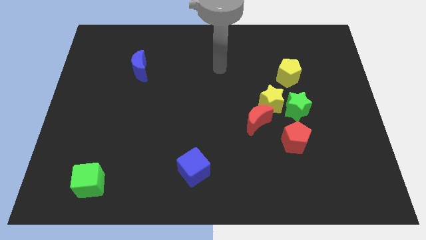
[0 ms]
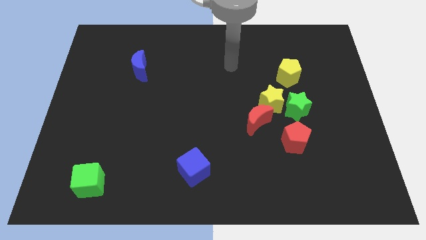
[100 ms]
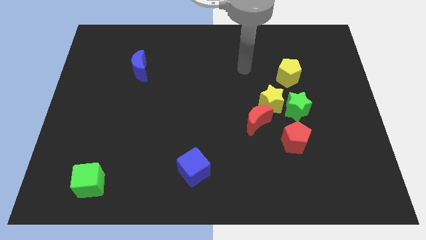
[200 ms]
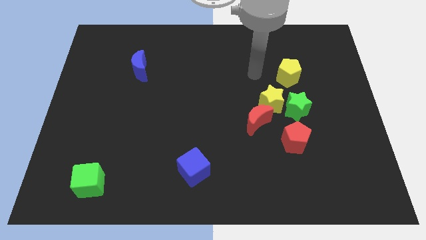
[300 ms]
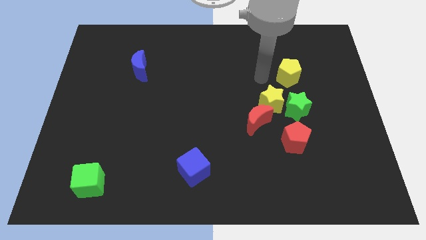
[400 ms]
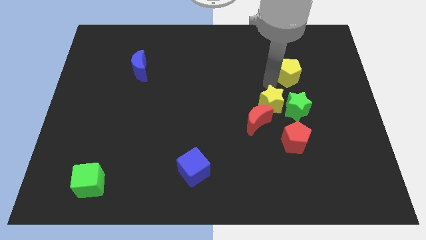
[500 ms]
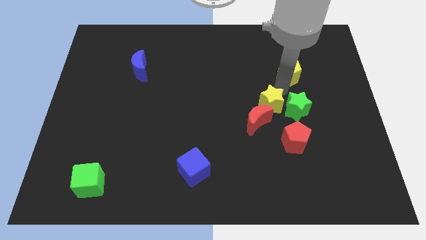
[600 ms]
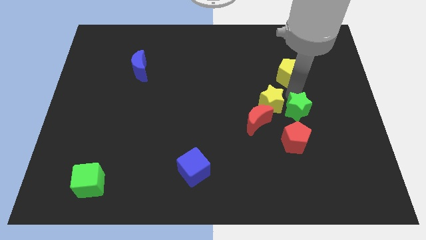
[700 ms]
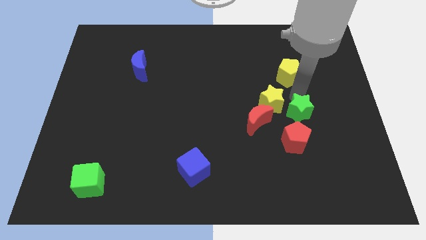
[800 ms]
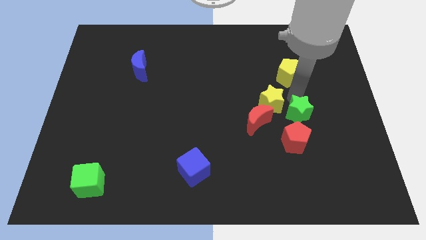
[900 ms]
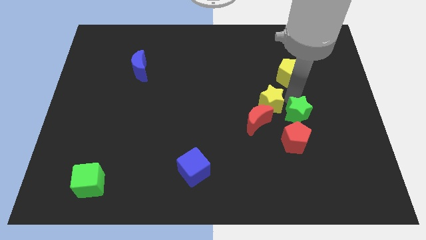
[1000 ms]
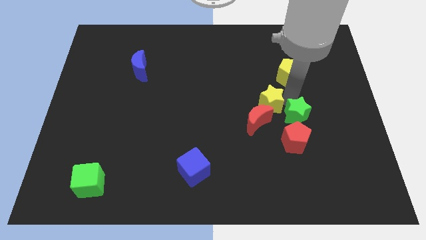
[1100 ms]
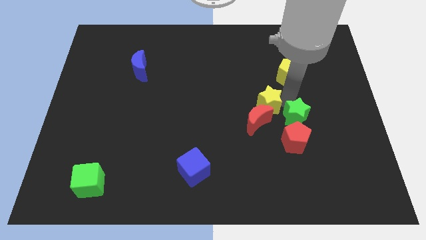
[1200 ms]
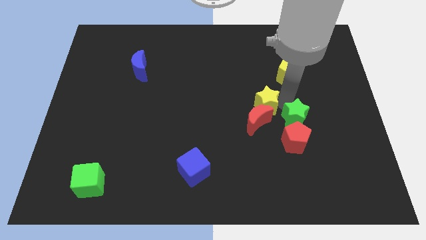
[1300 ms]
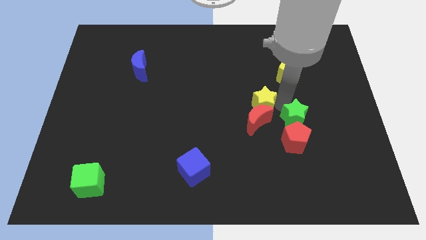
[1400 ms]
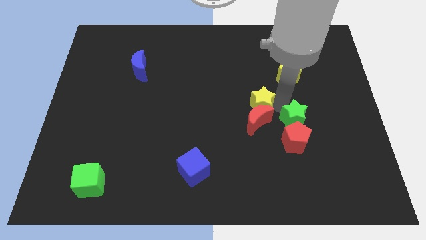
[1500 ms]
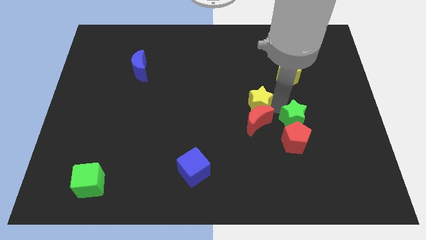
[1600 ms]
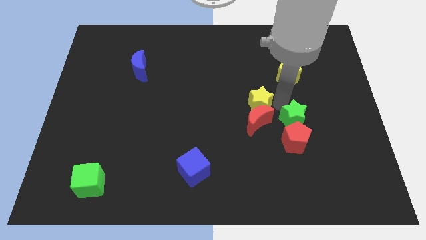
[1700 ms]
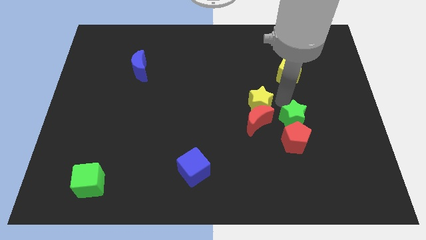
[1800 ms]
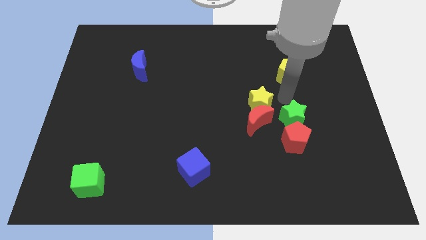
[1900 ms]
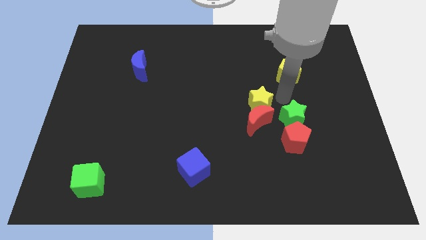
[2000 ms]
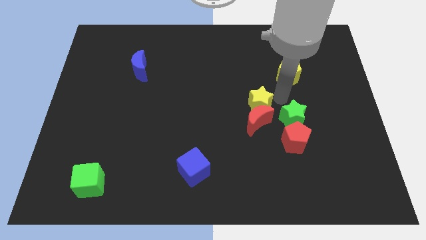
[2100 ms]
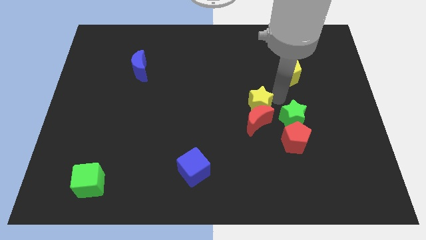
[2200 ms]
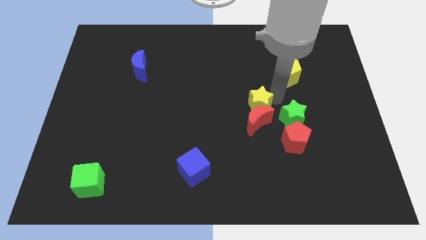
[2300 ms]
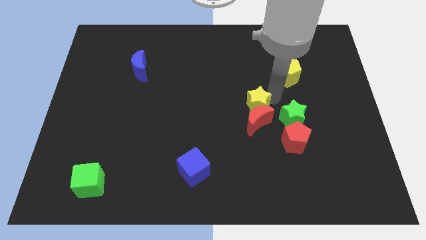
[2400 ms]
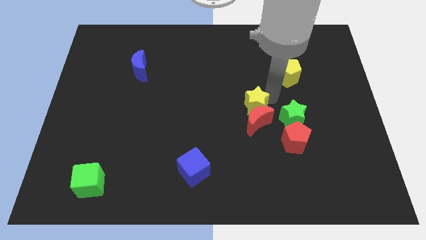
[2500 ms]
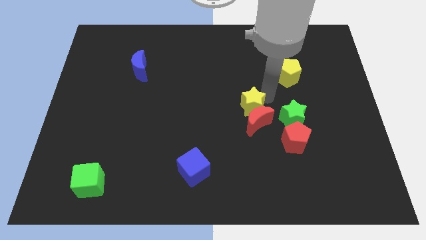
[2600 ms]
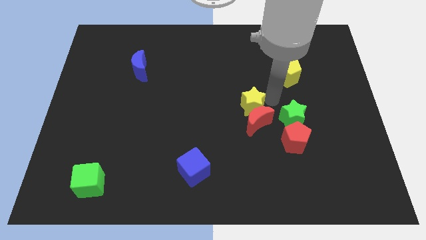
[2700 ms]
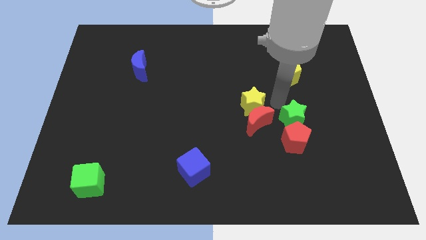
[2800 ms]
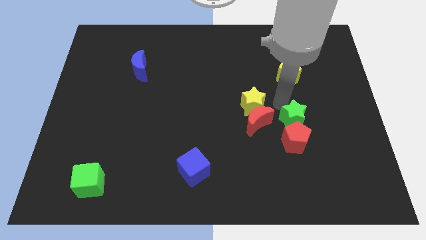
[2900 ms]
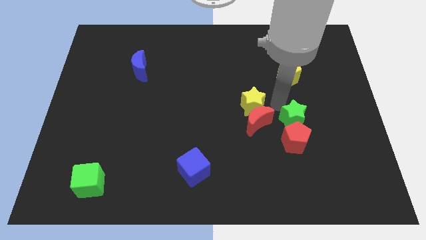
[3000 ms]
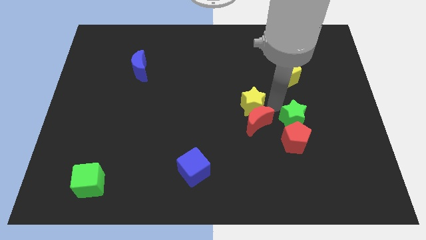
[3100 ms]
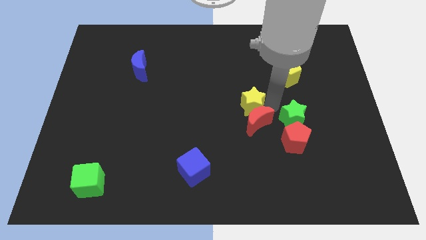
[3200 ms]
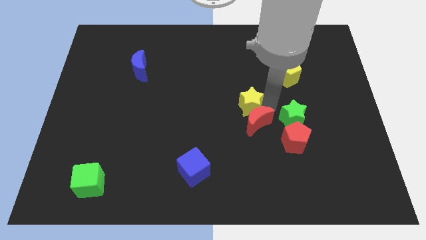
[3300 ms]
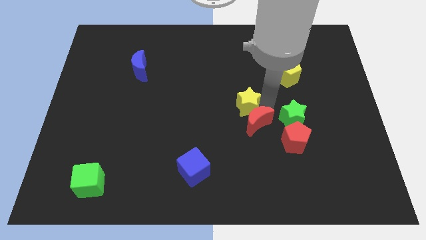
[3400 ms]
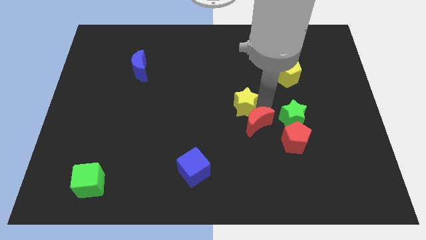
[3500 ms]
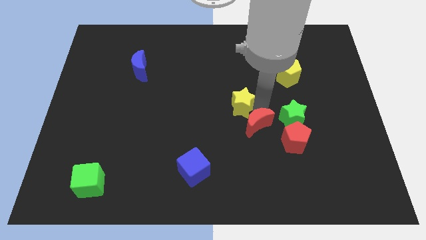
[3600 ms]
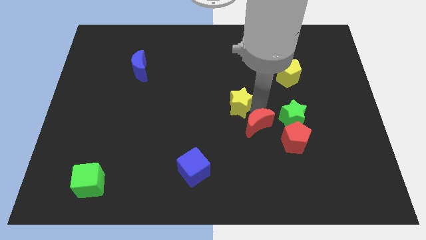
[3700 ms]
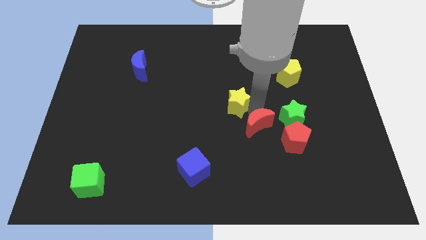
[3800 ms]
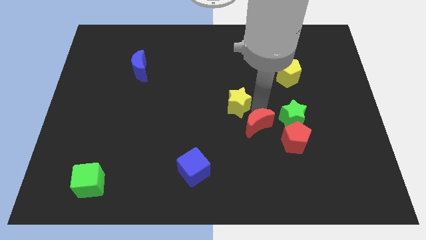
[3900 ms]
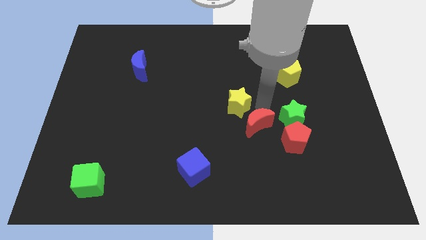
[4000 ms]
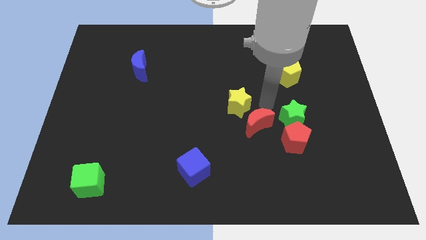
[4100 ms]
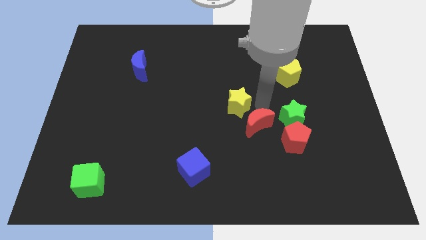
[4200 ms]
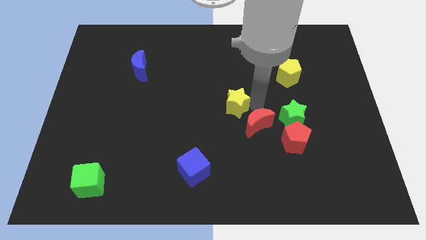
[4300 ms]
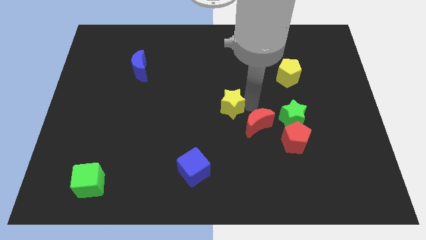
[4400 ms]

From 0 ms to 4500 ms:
separate the yellow star from the group of blocks

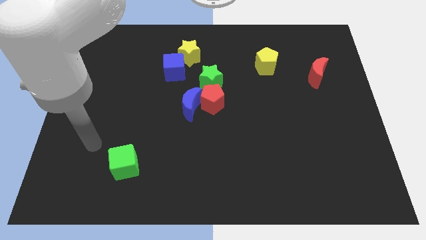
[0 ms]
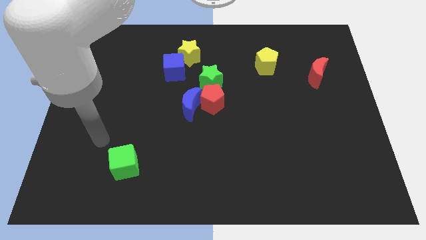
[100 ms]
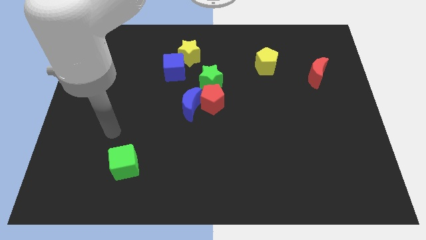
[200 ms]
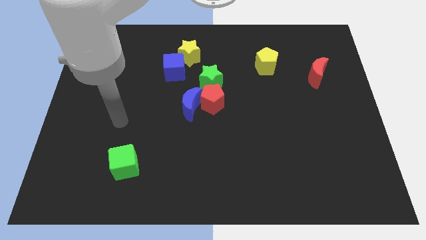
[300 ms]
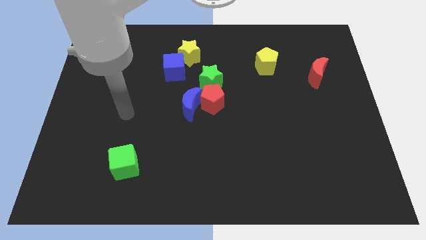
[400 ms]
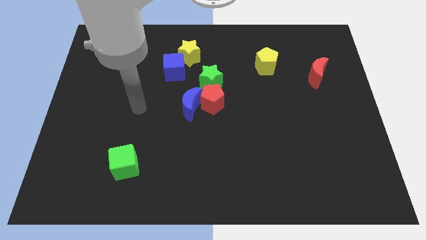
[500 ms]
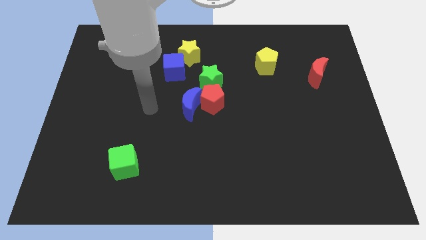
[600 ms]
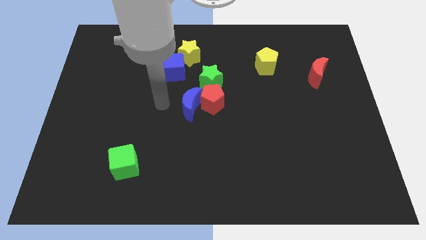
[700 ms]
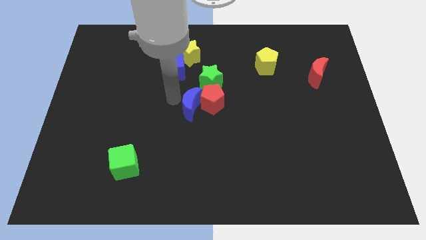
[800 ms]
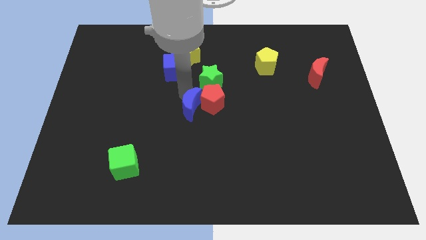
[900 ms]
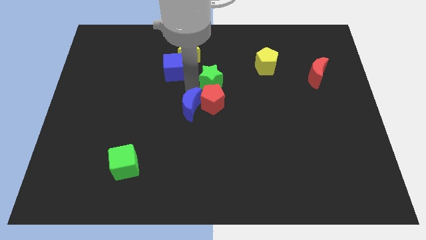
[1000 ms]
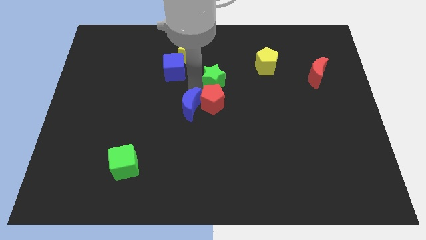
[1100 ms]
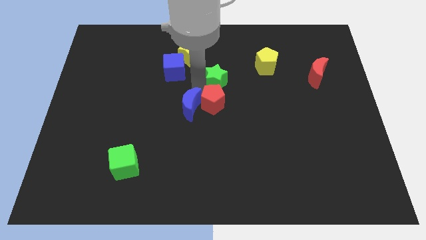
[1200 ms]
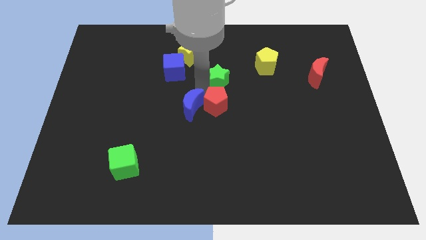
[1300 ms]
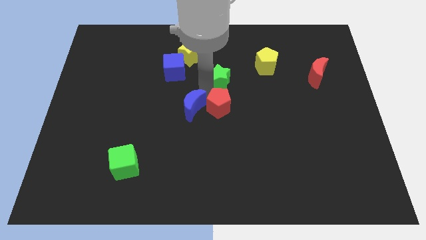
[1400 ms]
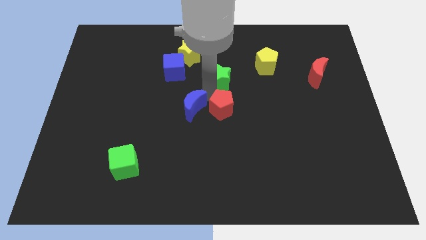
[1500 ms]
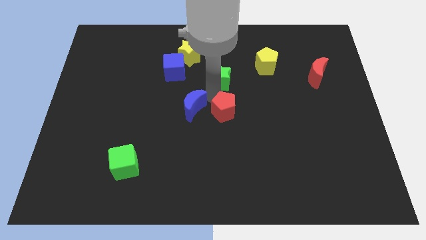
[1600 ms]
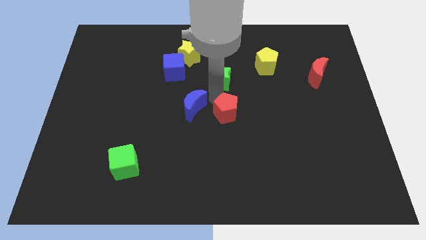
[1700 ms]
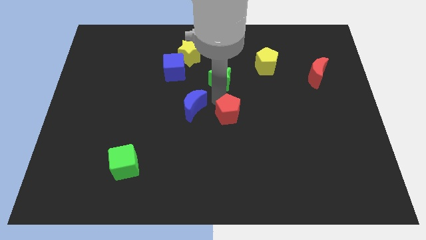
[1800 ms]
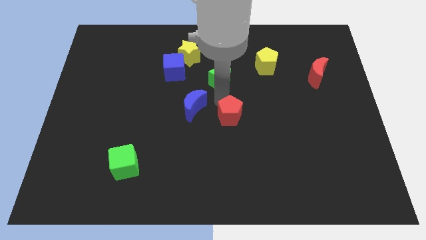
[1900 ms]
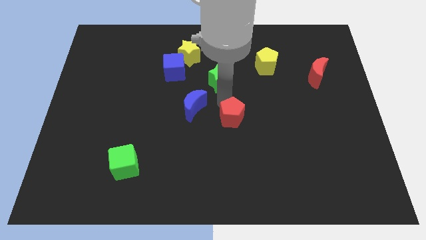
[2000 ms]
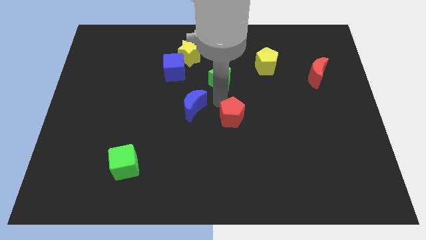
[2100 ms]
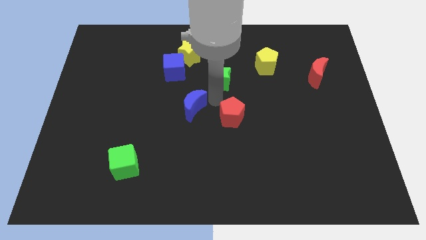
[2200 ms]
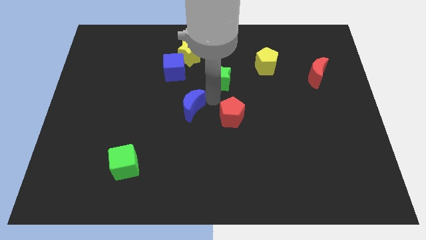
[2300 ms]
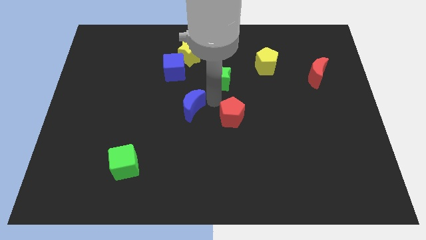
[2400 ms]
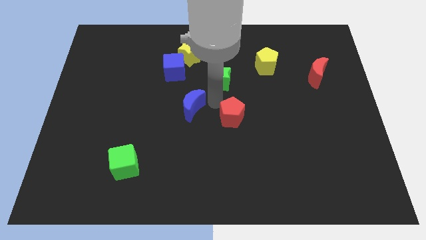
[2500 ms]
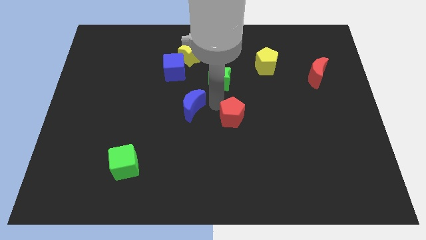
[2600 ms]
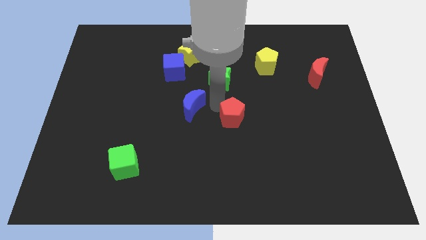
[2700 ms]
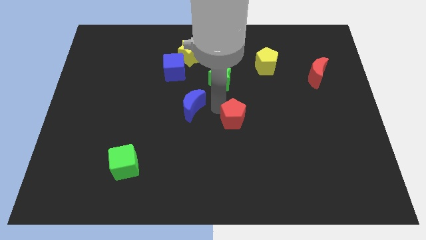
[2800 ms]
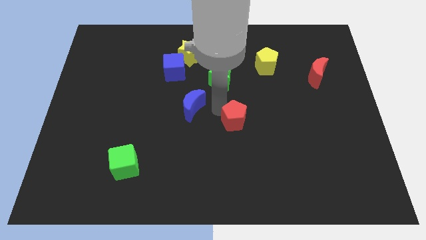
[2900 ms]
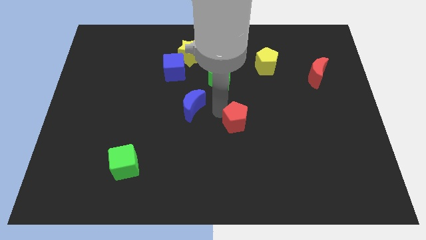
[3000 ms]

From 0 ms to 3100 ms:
separate the red pentagon from the blue moon and green star

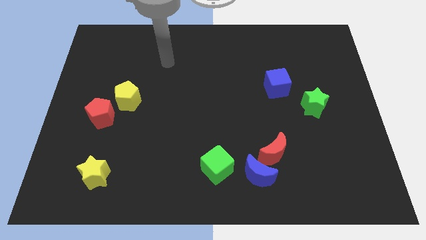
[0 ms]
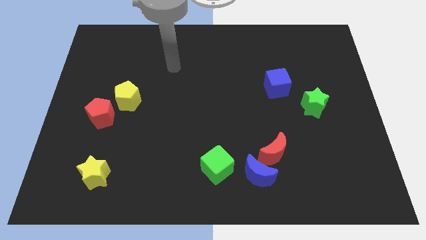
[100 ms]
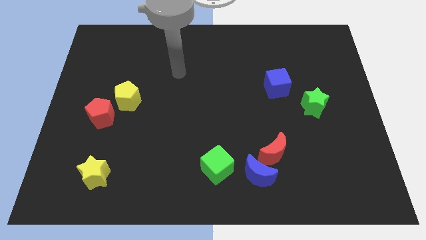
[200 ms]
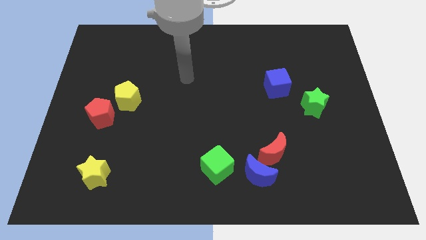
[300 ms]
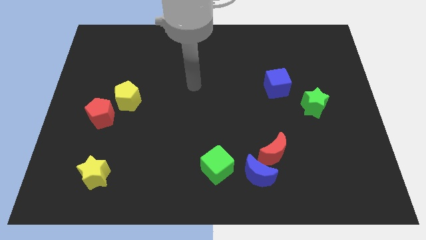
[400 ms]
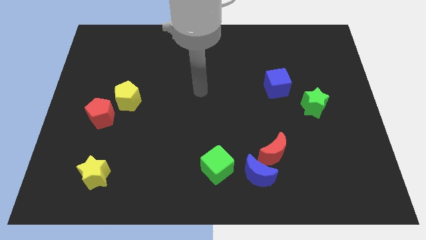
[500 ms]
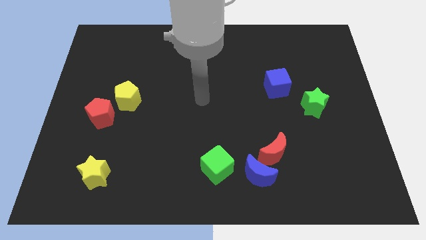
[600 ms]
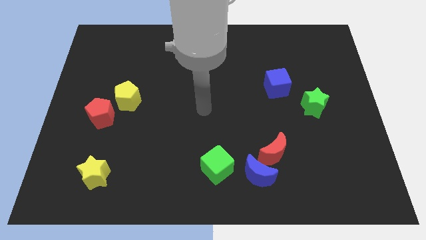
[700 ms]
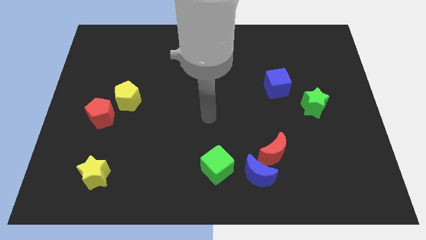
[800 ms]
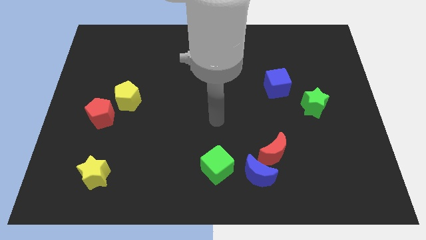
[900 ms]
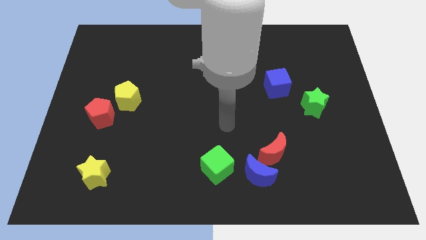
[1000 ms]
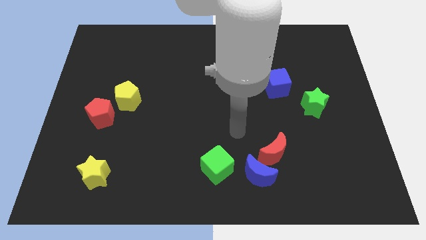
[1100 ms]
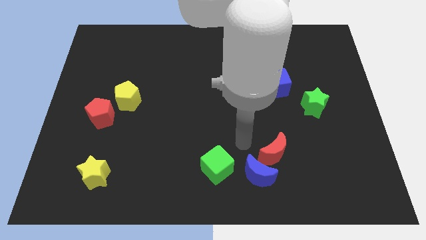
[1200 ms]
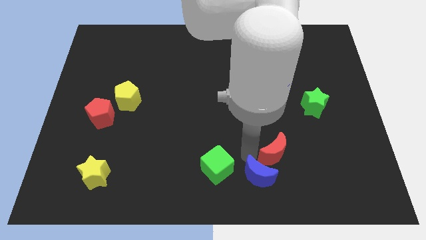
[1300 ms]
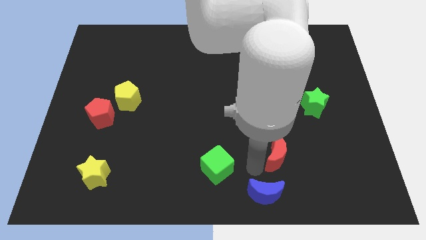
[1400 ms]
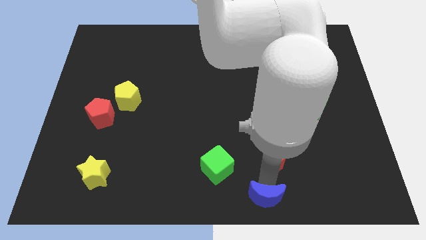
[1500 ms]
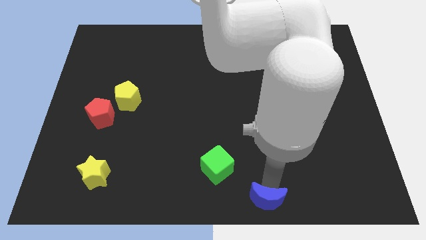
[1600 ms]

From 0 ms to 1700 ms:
separate the red moon from the blue moon
